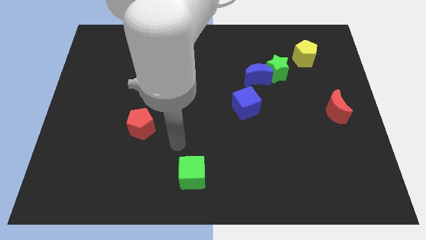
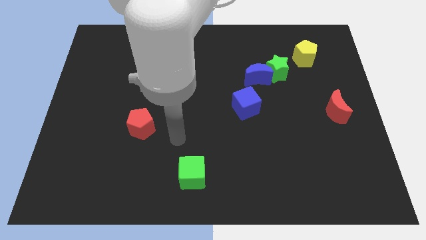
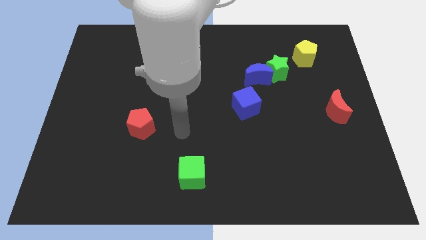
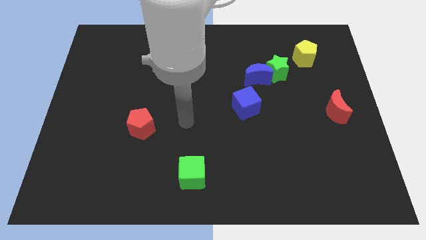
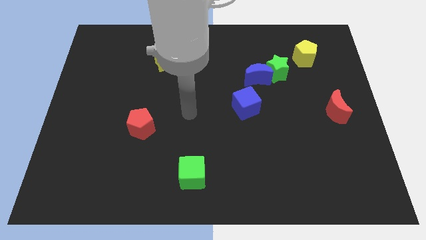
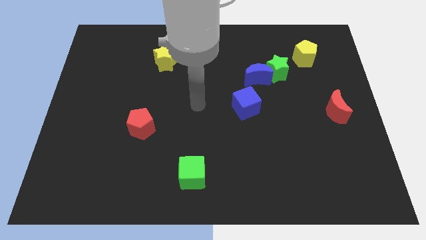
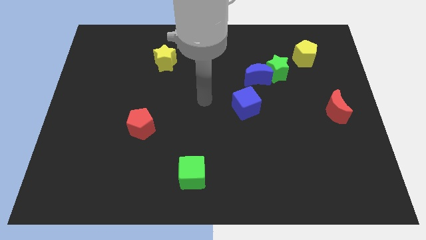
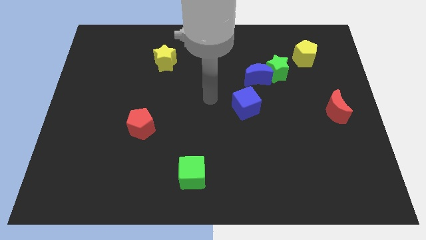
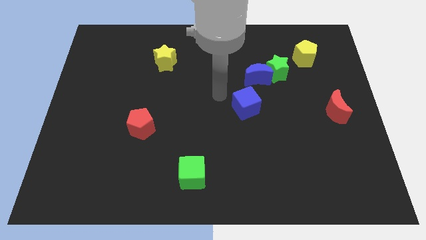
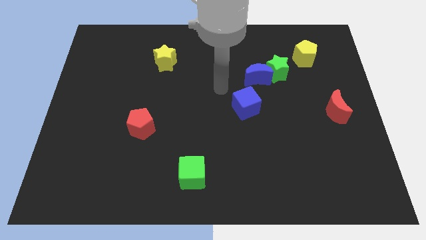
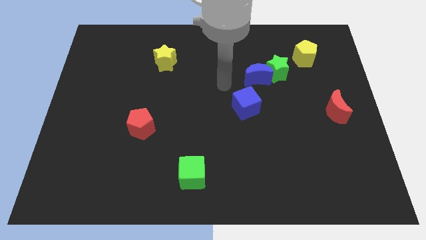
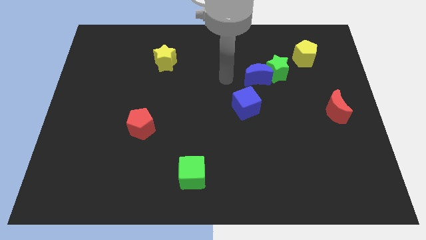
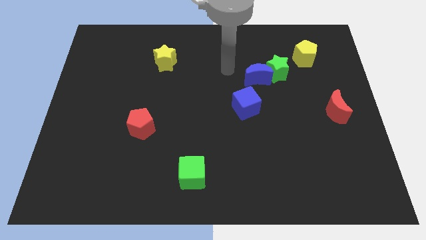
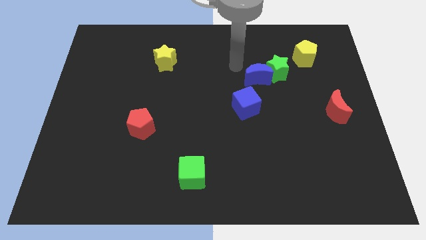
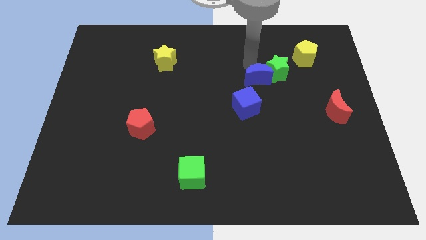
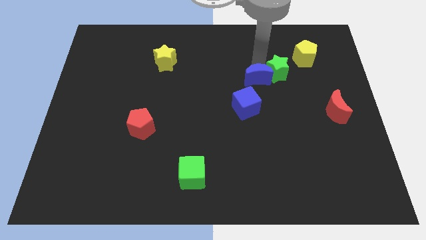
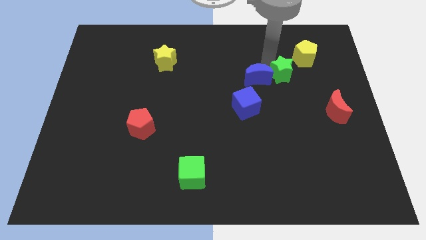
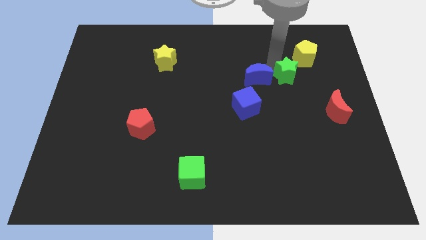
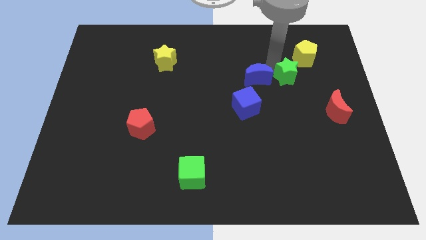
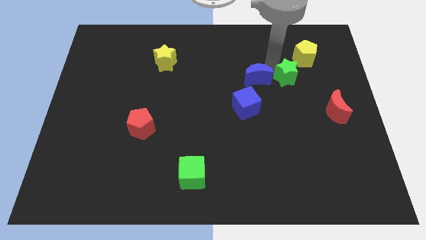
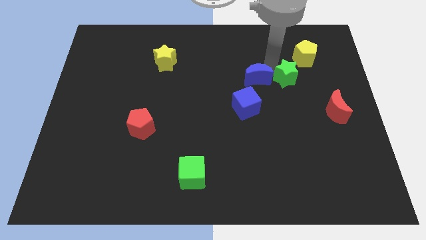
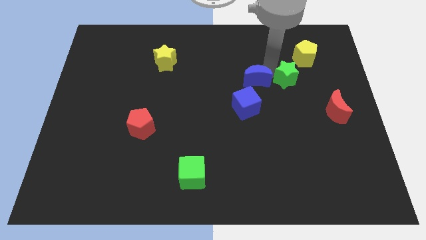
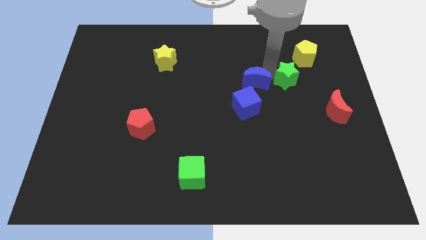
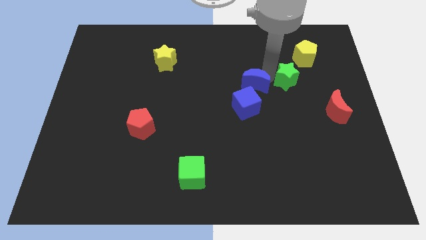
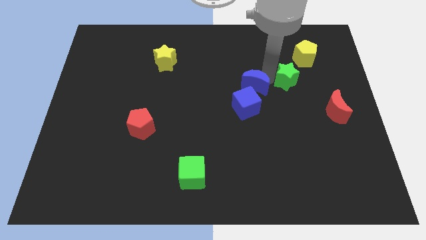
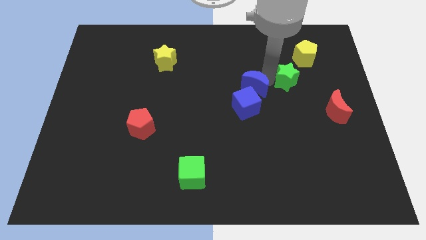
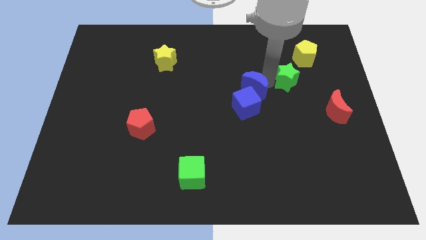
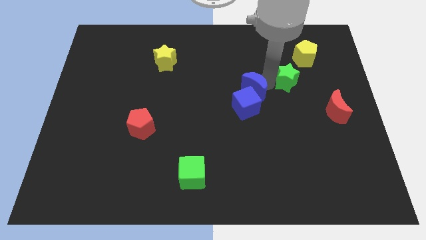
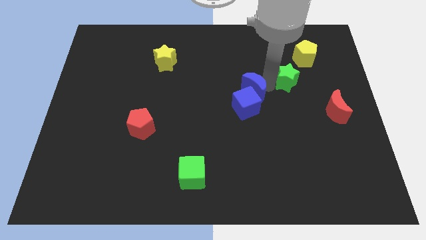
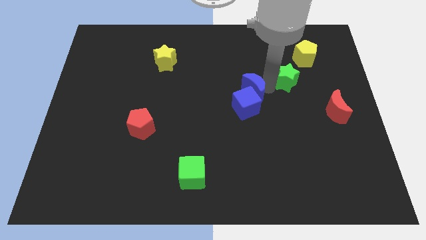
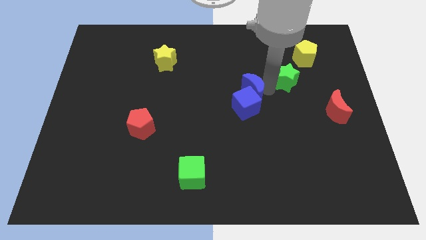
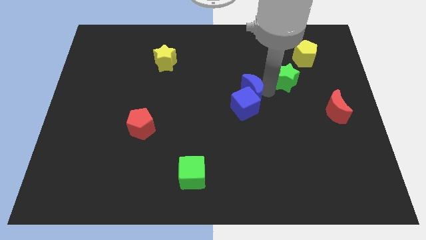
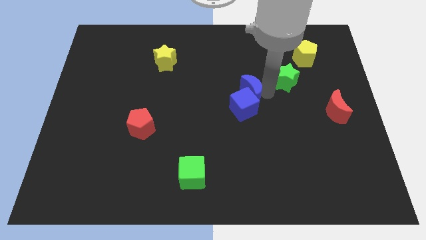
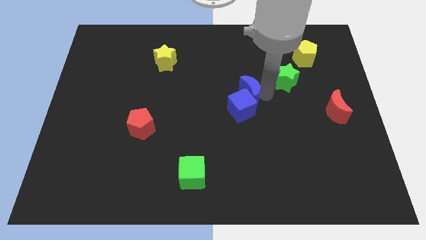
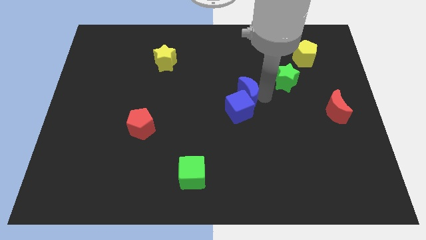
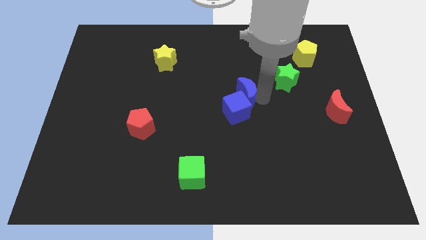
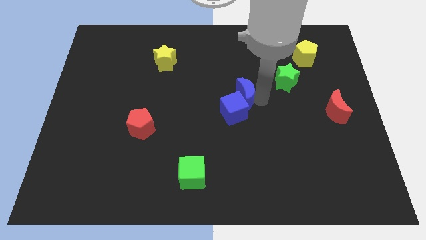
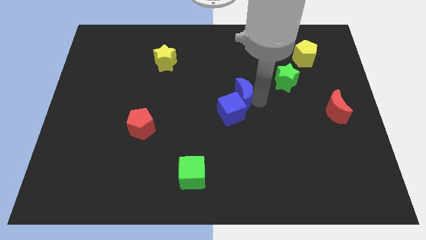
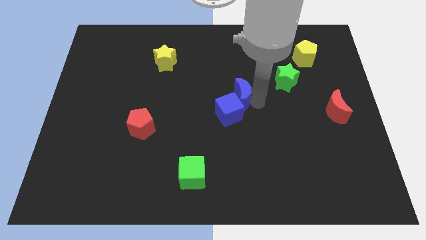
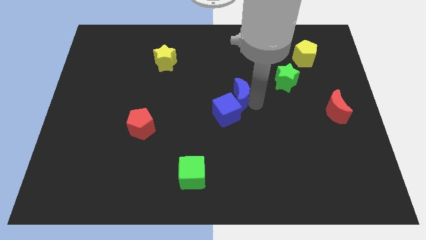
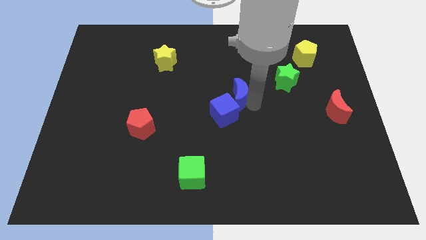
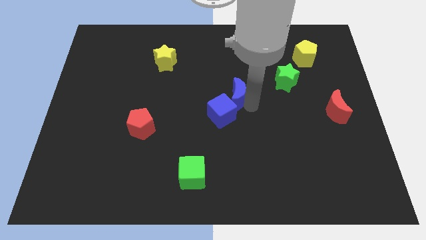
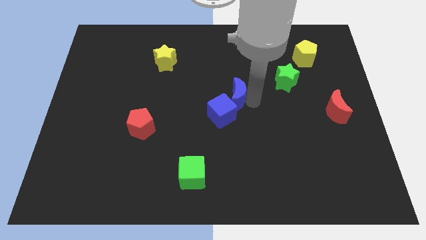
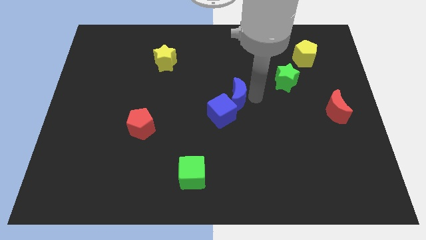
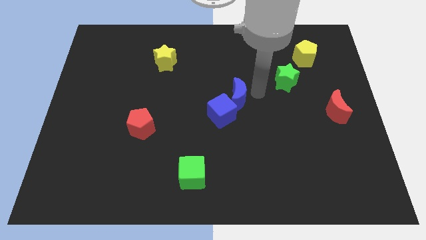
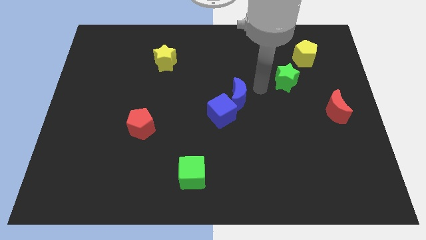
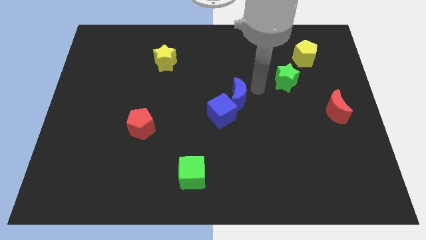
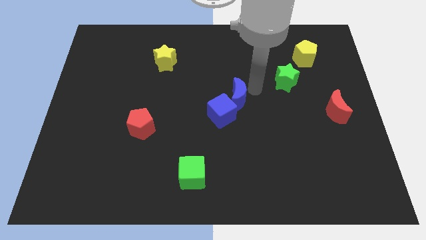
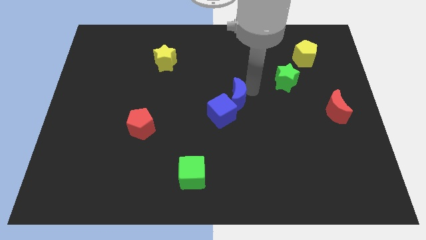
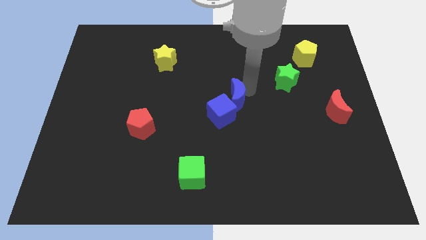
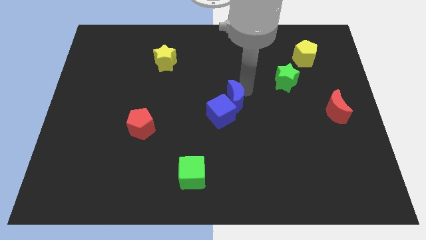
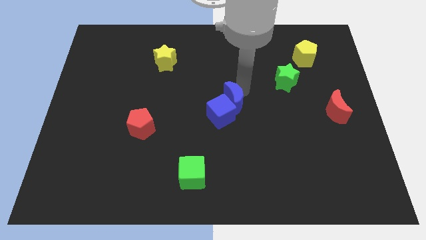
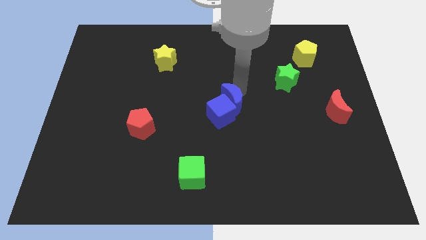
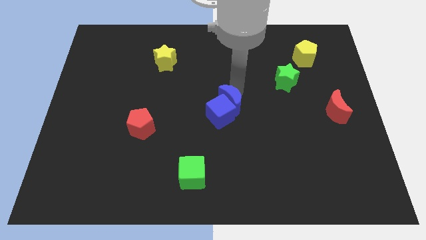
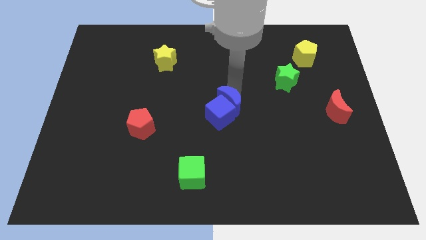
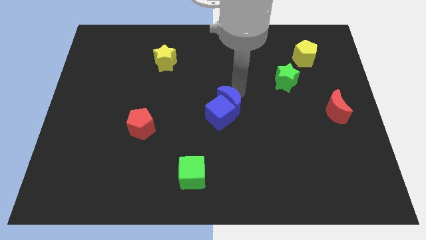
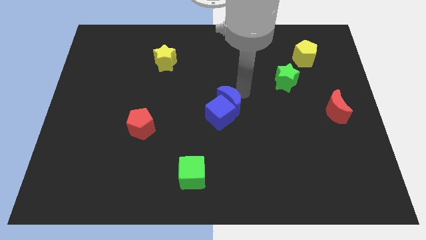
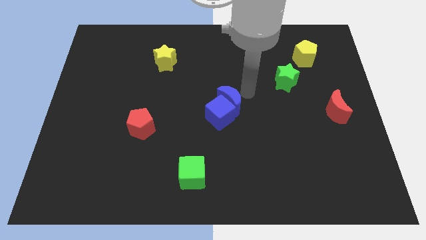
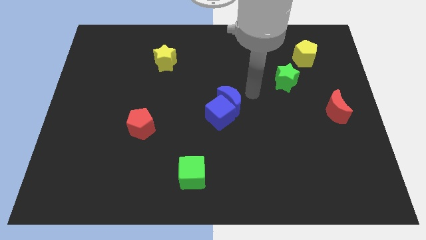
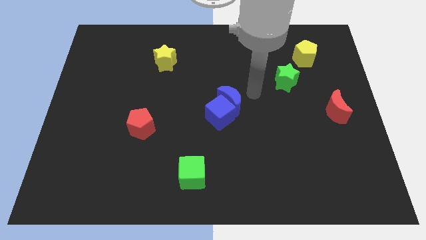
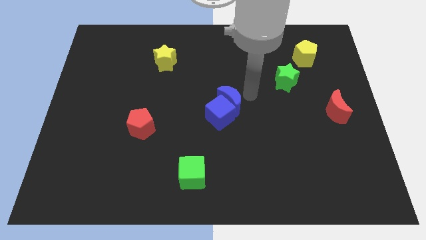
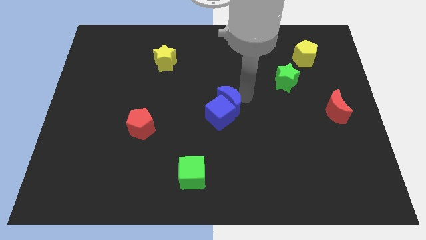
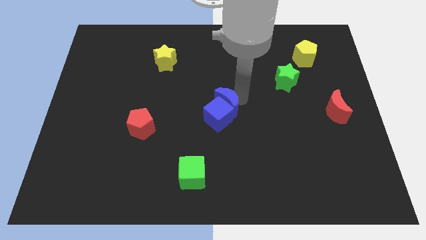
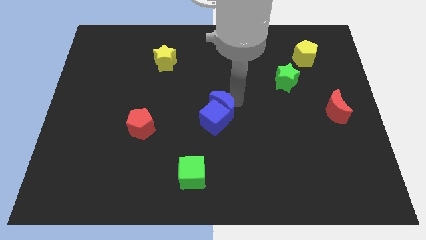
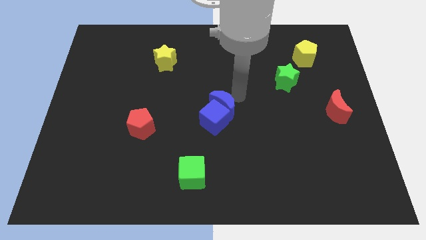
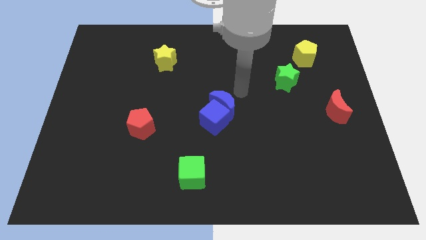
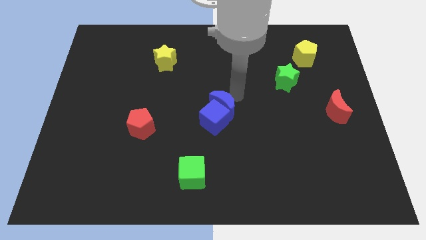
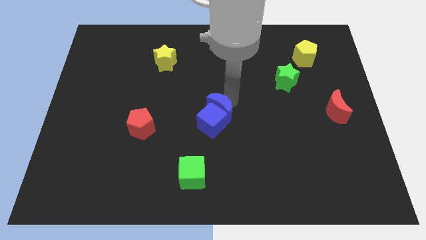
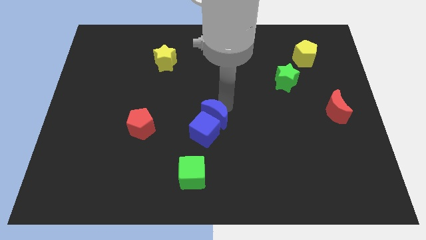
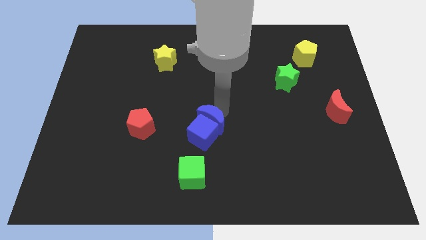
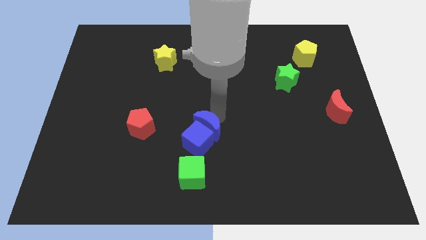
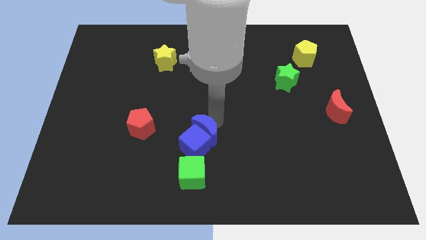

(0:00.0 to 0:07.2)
move the blue moon diagonally down and to the left

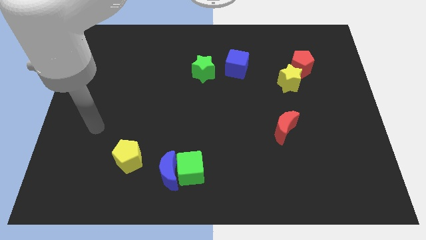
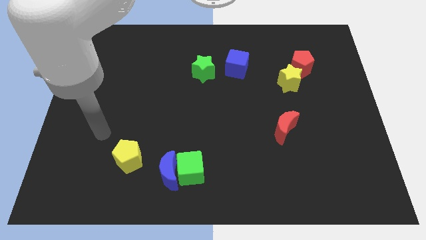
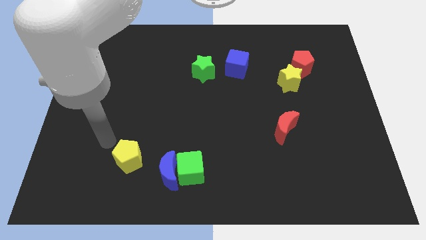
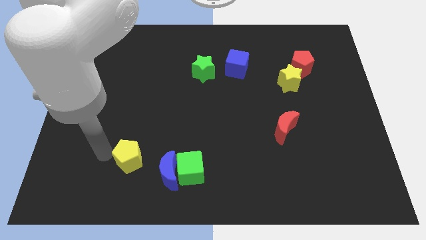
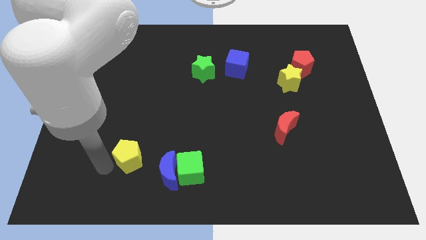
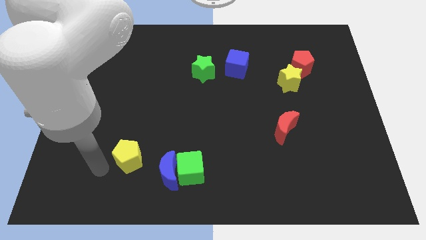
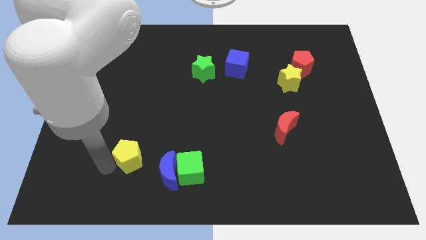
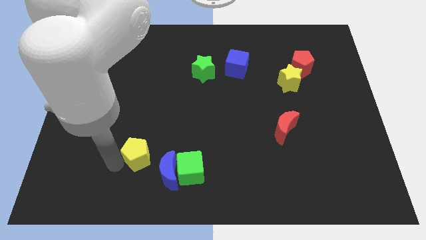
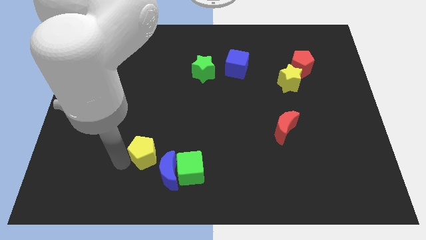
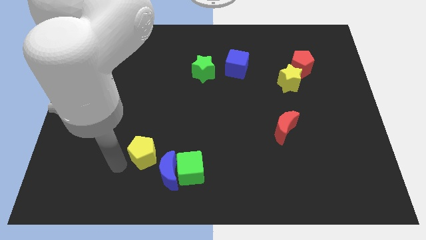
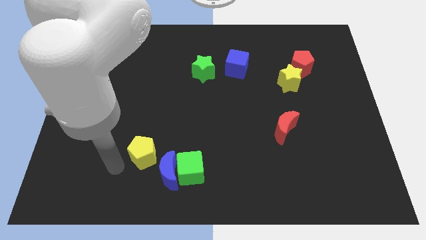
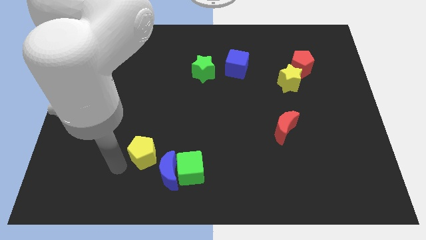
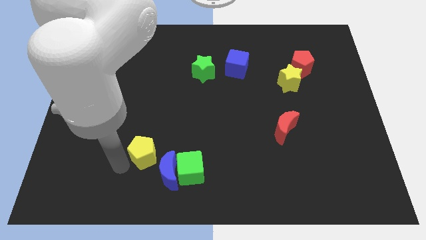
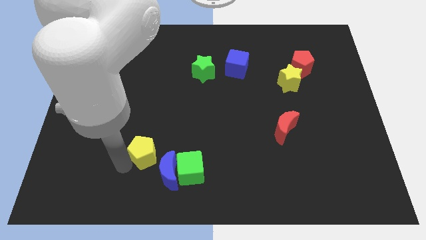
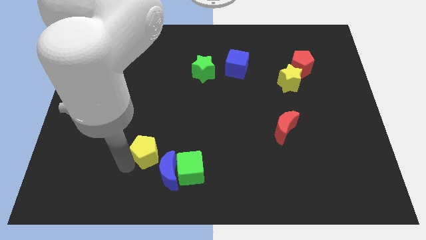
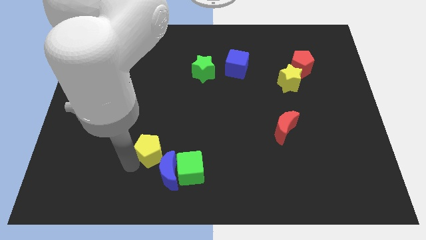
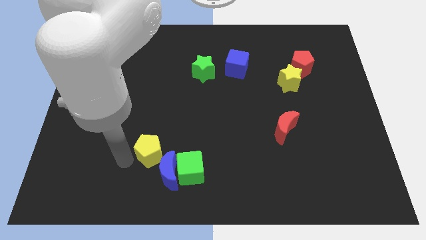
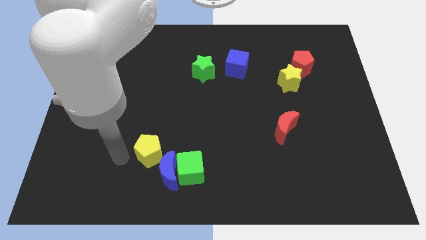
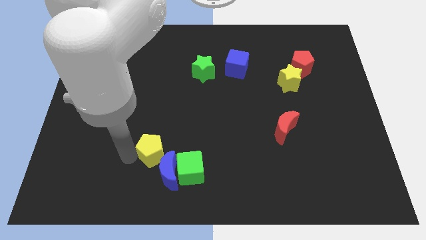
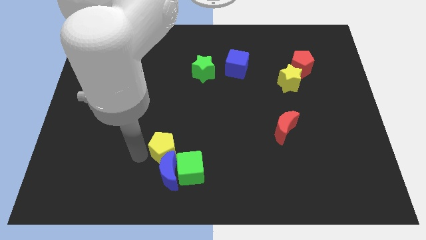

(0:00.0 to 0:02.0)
slightly move the yellow pentagon to the right
